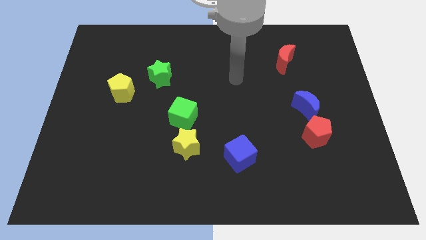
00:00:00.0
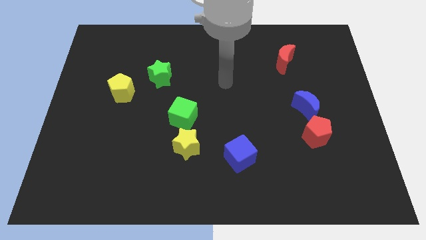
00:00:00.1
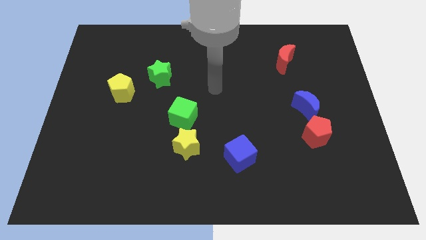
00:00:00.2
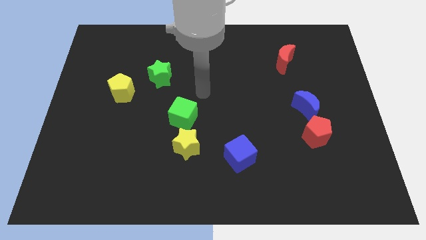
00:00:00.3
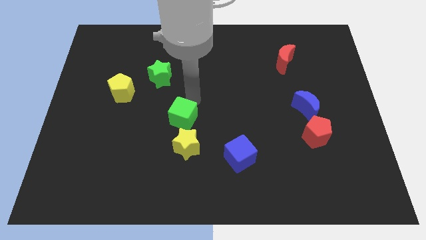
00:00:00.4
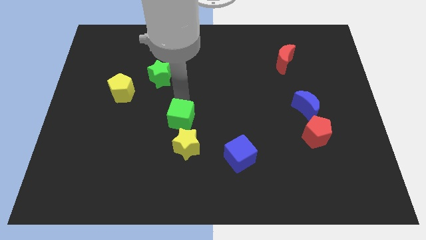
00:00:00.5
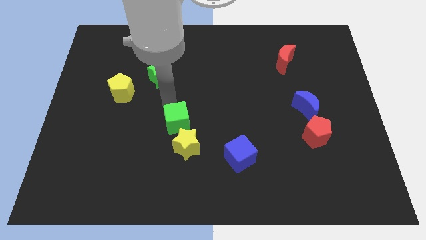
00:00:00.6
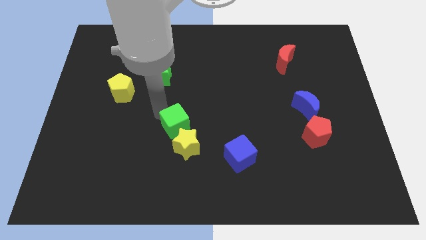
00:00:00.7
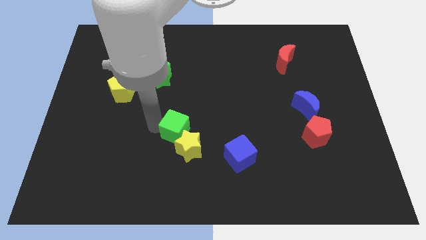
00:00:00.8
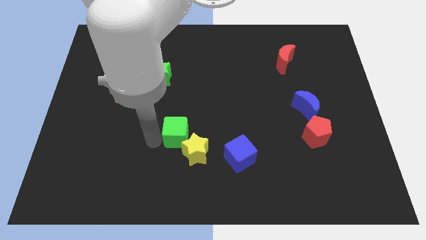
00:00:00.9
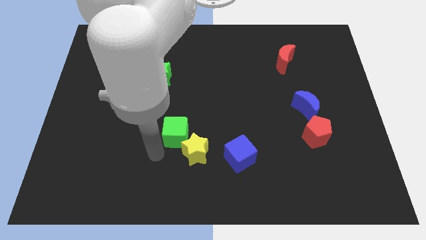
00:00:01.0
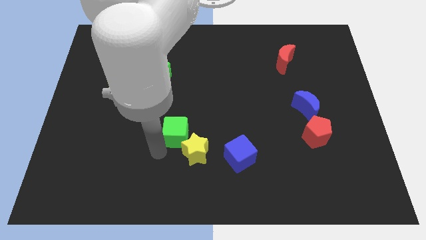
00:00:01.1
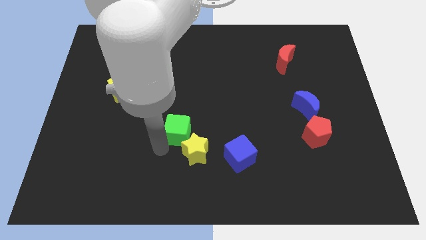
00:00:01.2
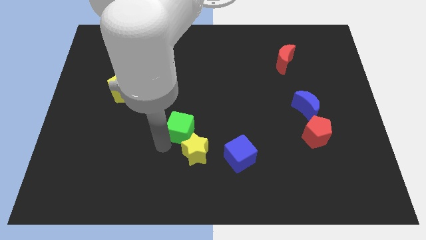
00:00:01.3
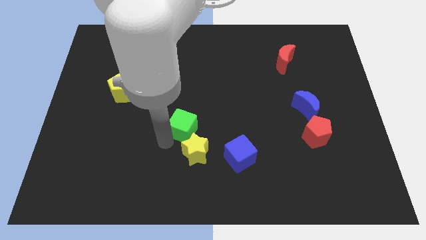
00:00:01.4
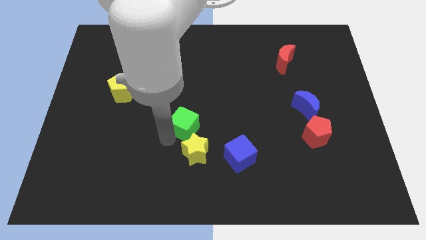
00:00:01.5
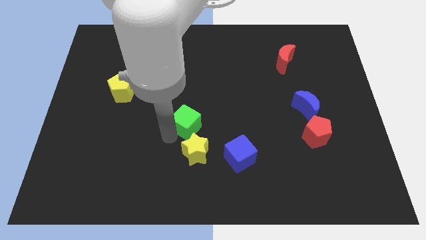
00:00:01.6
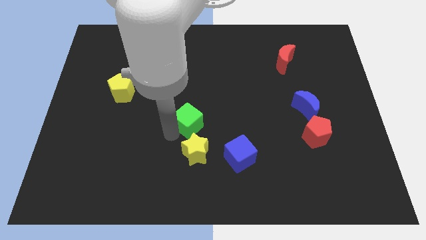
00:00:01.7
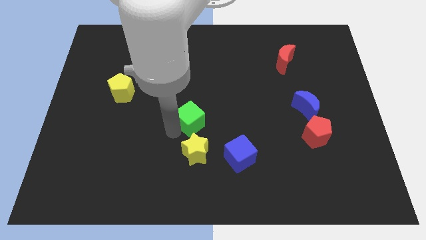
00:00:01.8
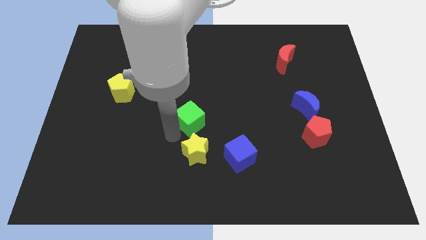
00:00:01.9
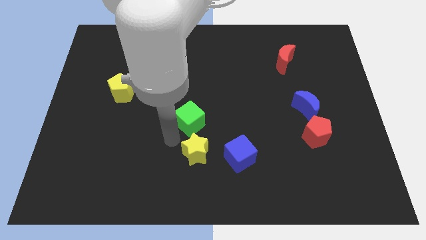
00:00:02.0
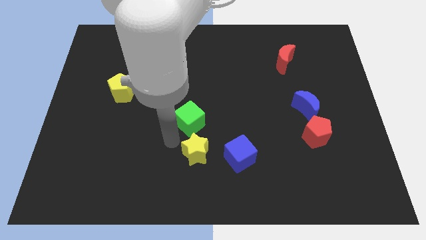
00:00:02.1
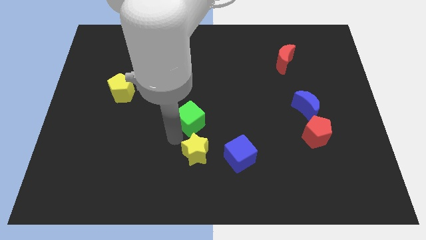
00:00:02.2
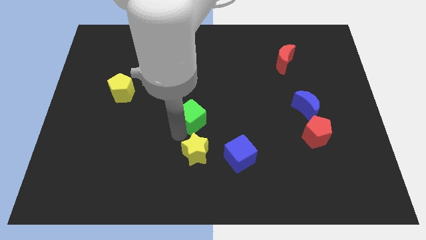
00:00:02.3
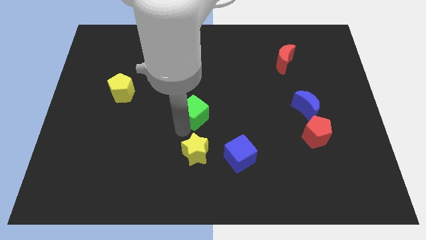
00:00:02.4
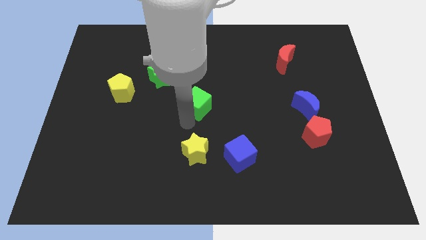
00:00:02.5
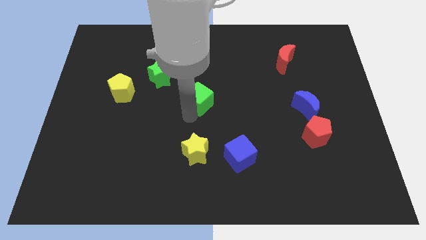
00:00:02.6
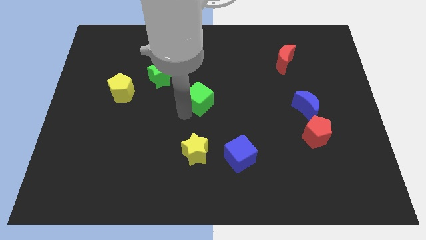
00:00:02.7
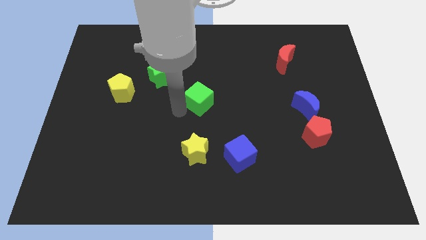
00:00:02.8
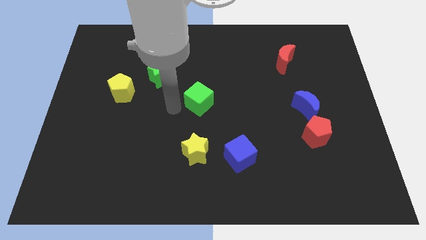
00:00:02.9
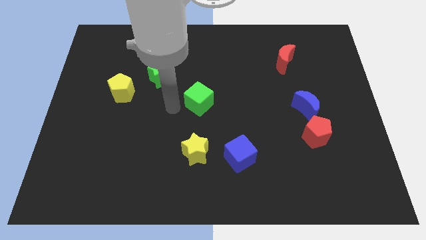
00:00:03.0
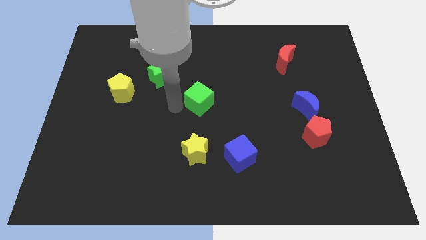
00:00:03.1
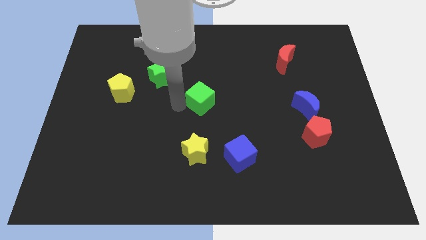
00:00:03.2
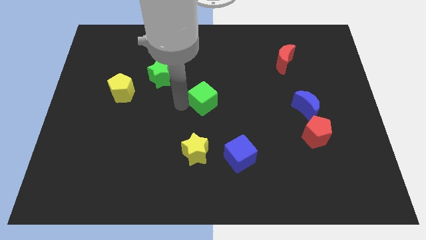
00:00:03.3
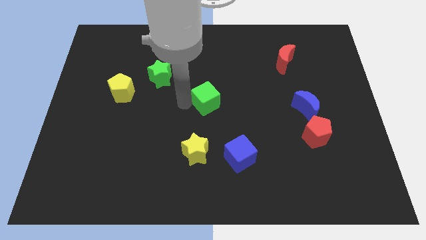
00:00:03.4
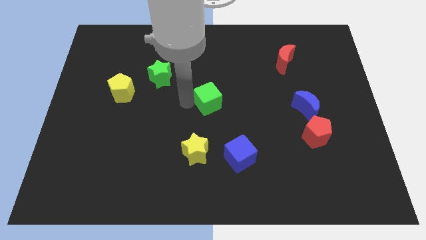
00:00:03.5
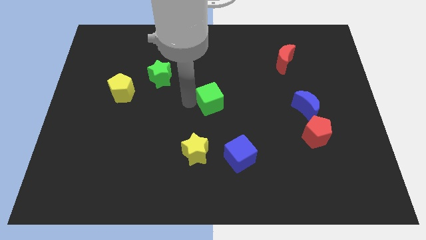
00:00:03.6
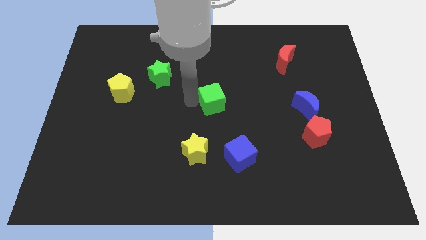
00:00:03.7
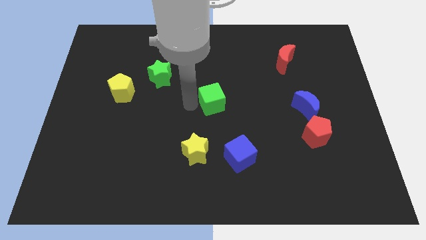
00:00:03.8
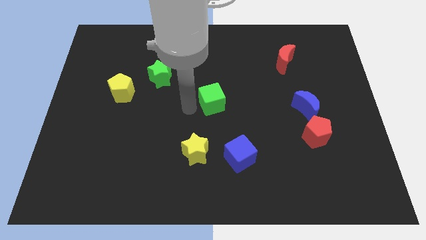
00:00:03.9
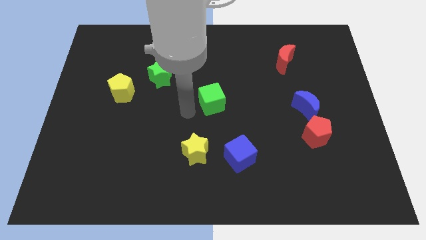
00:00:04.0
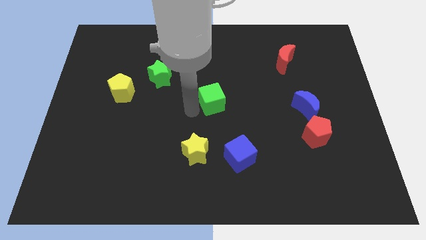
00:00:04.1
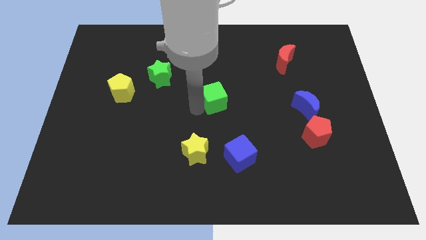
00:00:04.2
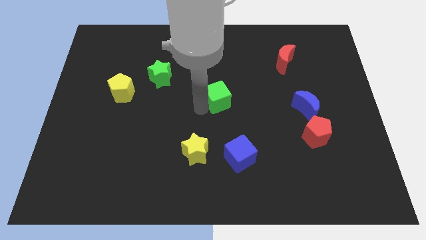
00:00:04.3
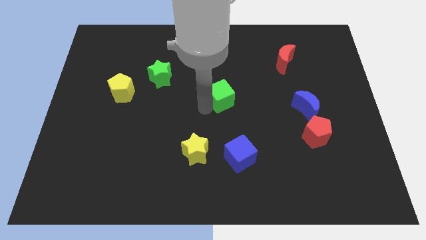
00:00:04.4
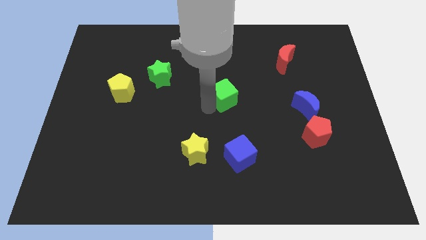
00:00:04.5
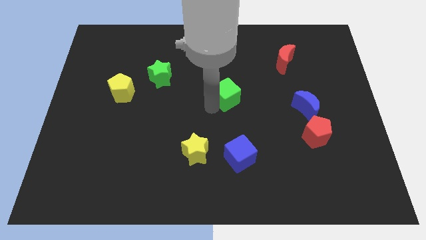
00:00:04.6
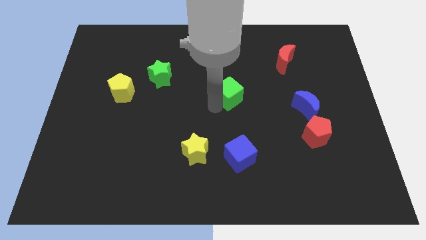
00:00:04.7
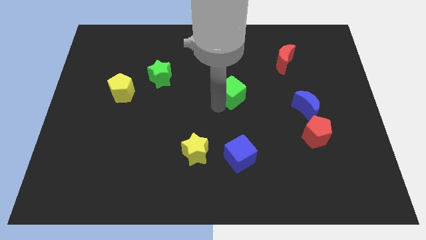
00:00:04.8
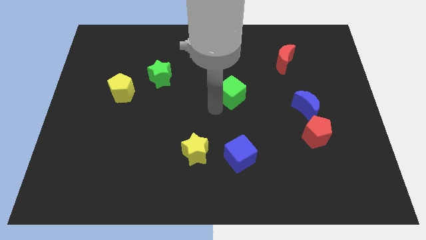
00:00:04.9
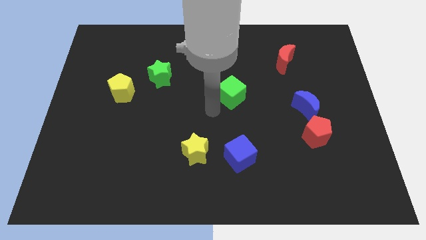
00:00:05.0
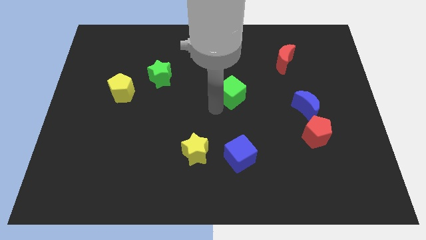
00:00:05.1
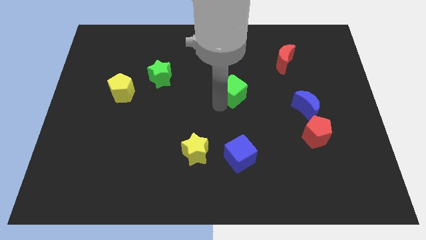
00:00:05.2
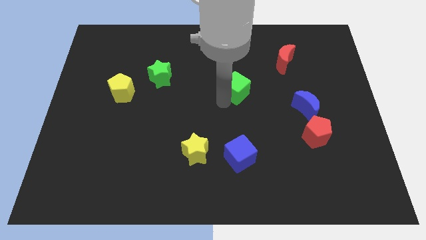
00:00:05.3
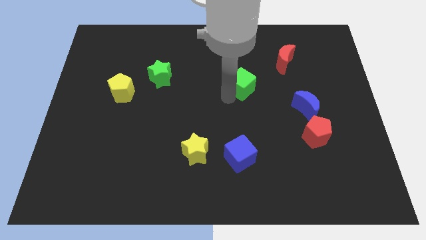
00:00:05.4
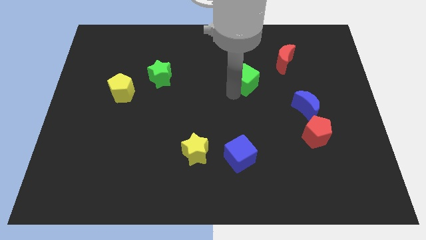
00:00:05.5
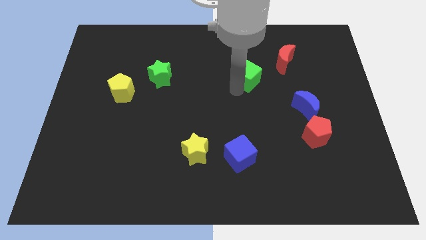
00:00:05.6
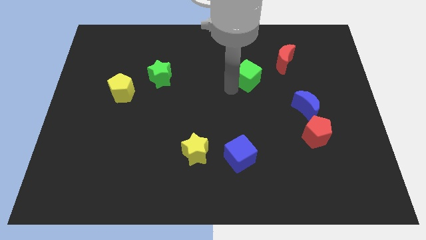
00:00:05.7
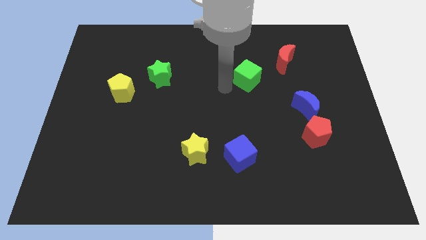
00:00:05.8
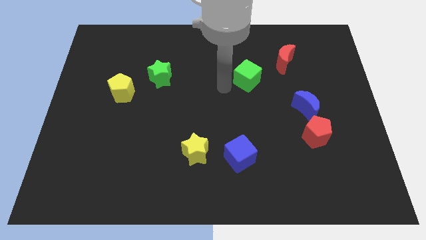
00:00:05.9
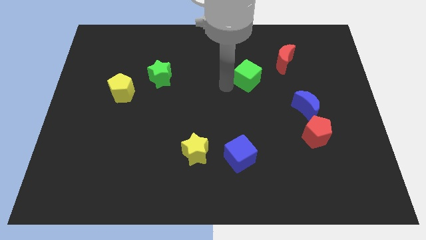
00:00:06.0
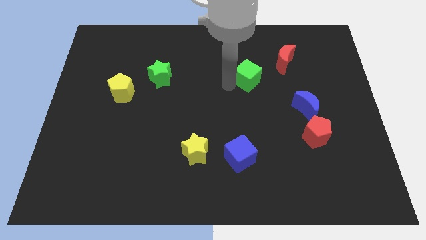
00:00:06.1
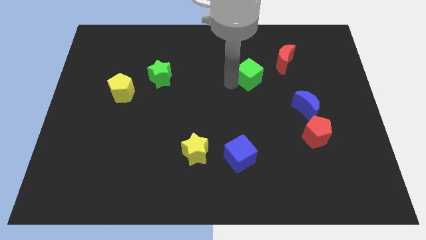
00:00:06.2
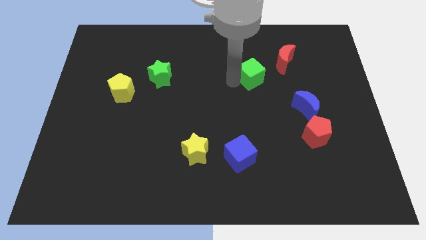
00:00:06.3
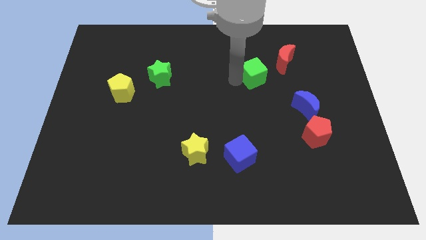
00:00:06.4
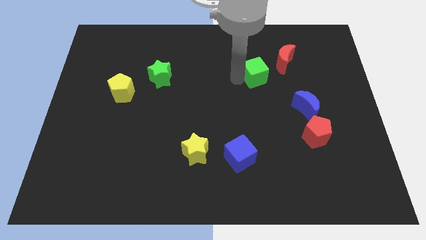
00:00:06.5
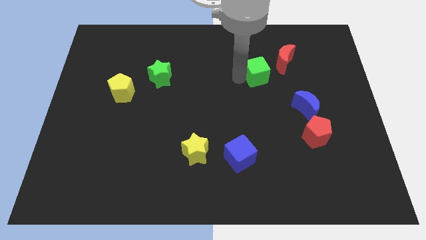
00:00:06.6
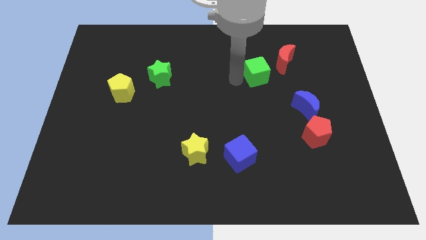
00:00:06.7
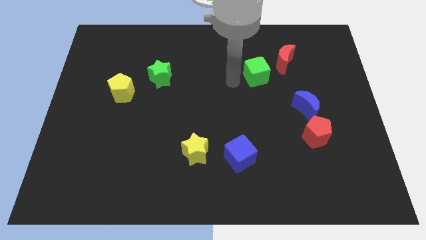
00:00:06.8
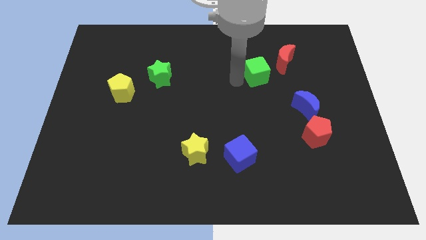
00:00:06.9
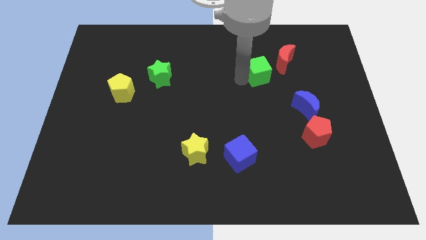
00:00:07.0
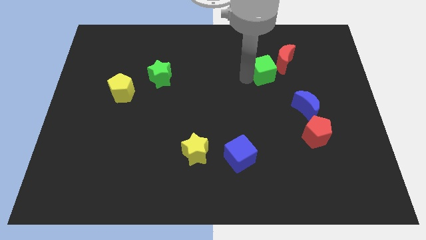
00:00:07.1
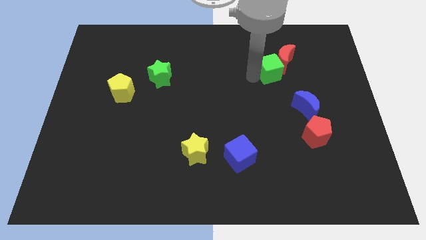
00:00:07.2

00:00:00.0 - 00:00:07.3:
slide the green cube to the red moon

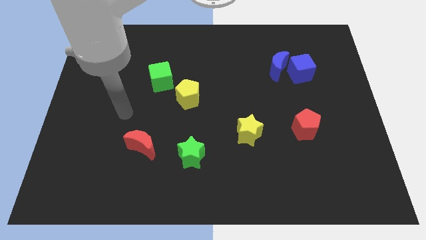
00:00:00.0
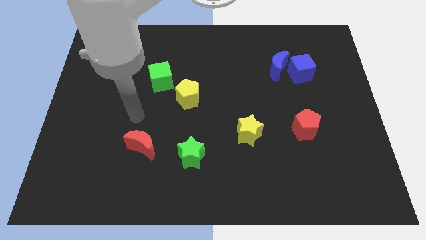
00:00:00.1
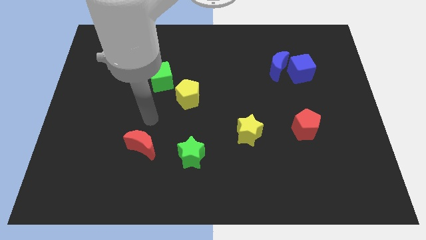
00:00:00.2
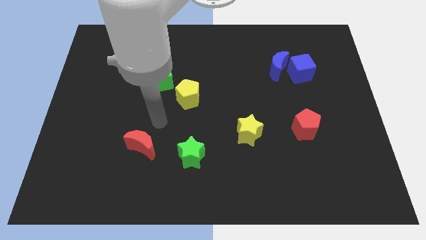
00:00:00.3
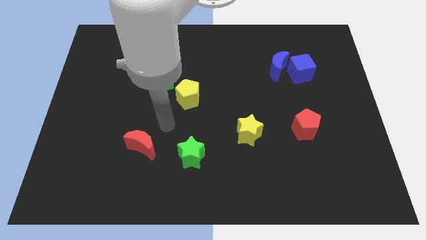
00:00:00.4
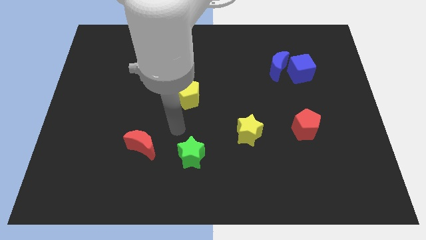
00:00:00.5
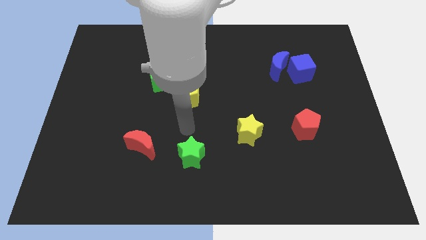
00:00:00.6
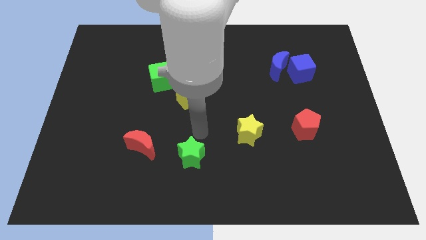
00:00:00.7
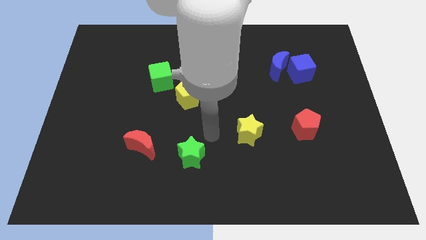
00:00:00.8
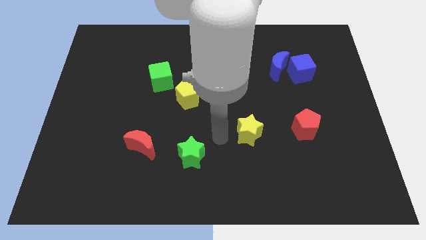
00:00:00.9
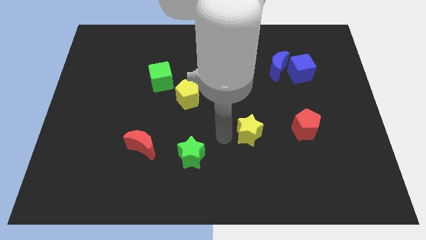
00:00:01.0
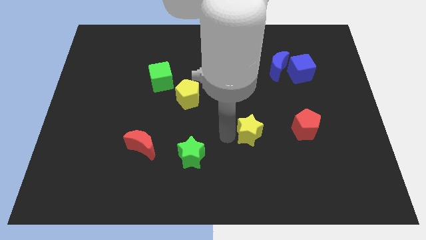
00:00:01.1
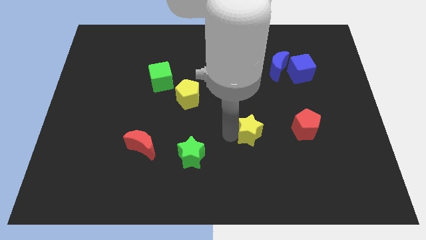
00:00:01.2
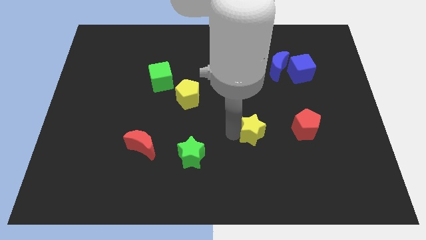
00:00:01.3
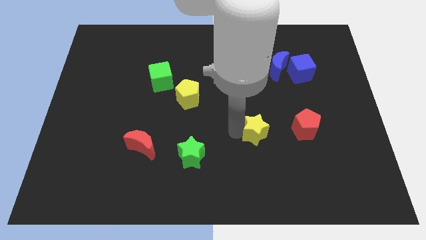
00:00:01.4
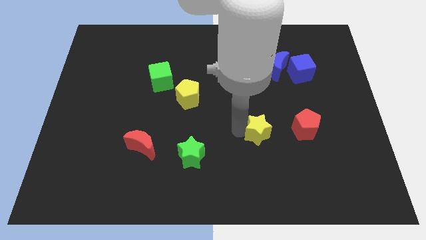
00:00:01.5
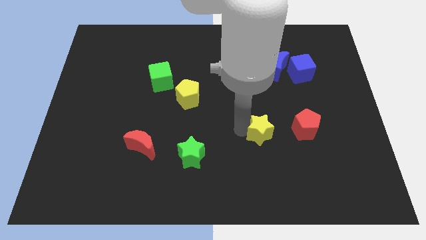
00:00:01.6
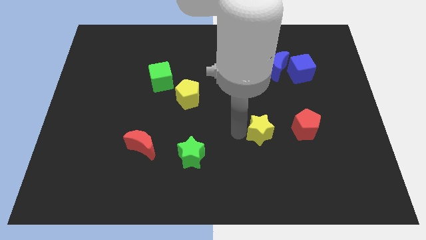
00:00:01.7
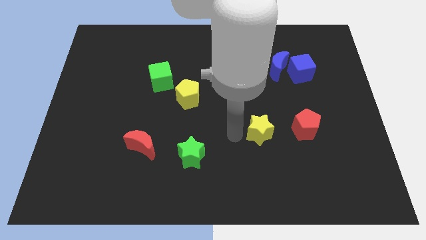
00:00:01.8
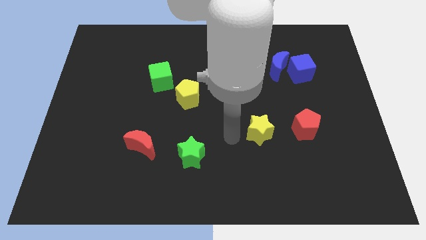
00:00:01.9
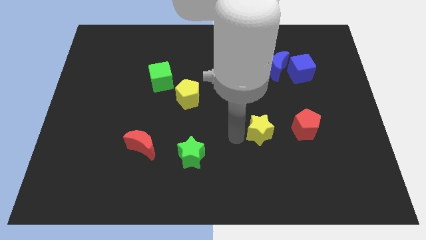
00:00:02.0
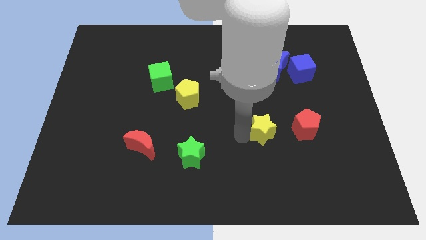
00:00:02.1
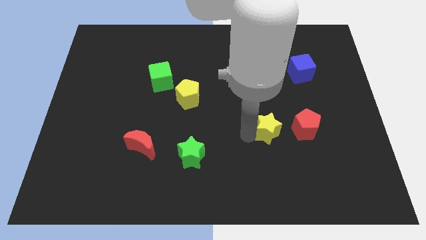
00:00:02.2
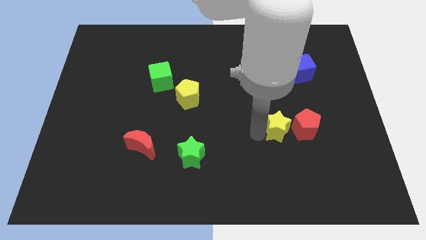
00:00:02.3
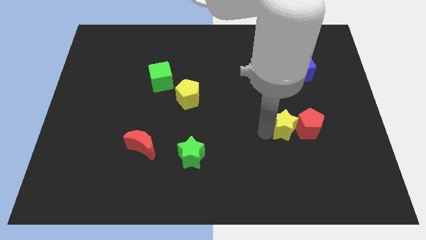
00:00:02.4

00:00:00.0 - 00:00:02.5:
move the yellow star to the red pentagon
